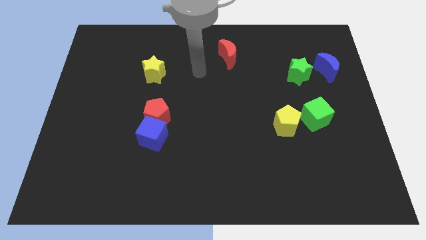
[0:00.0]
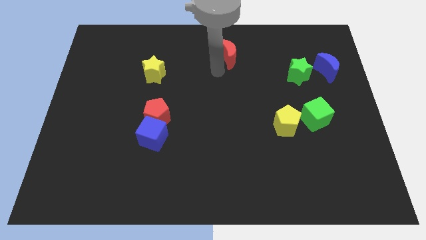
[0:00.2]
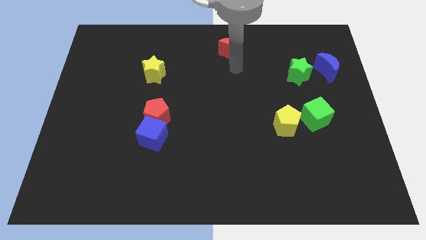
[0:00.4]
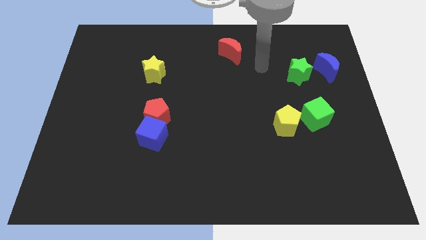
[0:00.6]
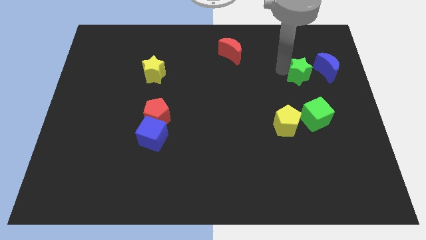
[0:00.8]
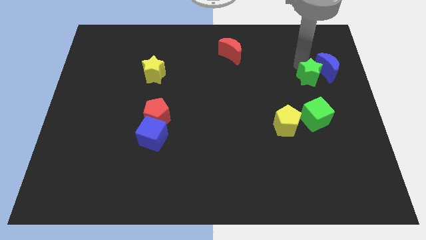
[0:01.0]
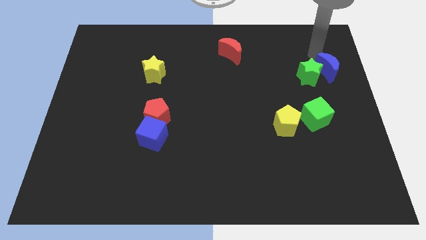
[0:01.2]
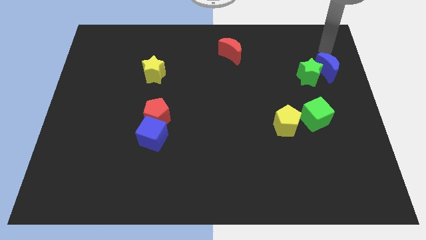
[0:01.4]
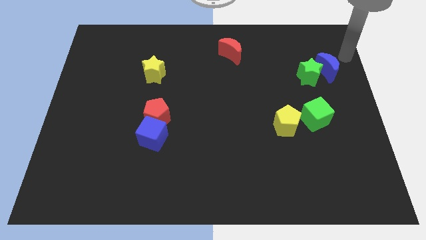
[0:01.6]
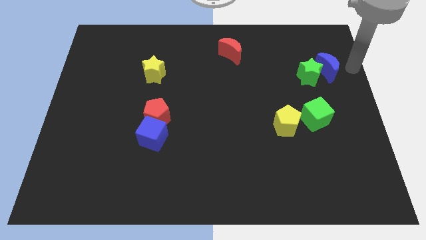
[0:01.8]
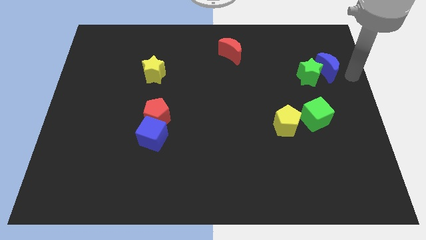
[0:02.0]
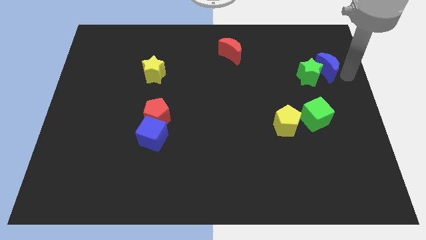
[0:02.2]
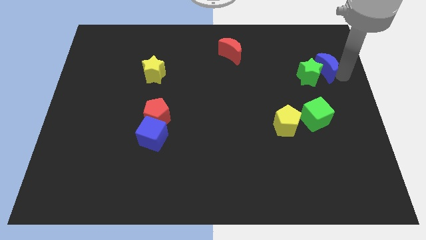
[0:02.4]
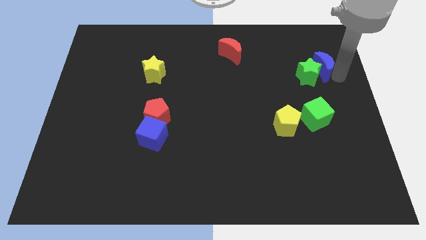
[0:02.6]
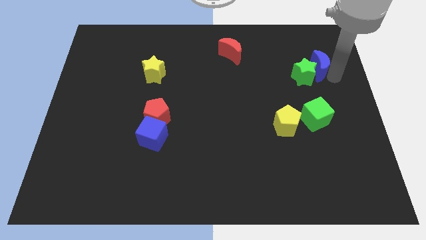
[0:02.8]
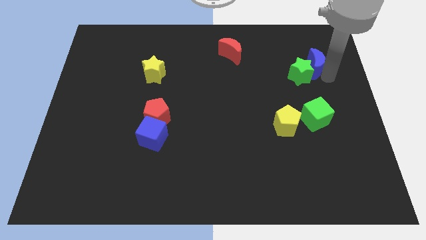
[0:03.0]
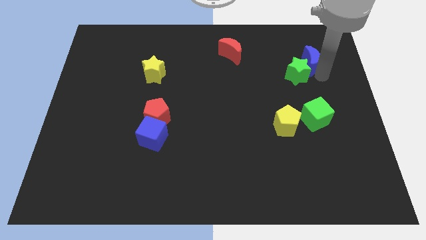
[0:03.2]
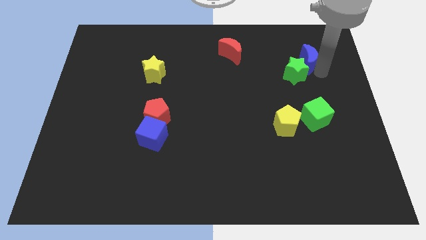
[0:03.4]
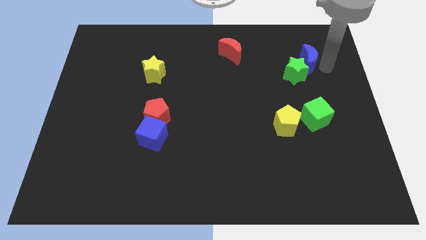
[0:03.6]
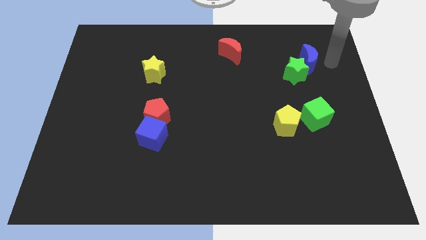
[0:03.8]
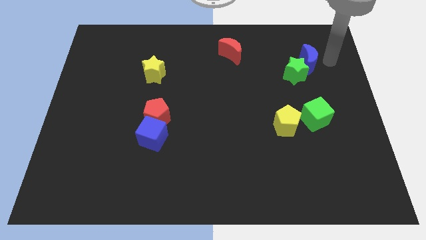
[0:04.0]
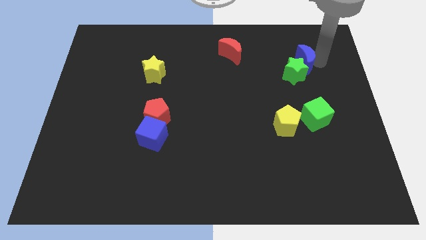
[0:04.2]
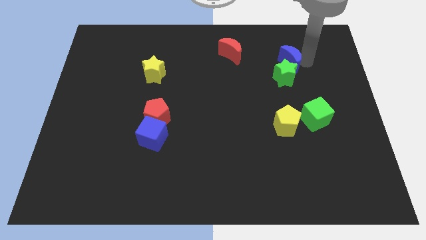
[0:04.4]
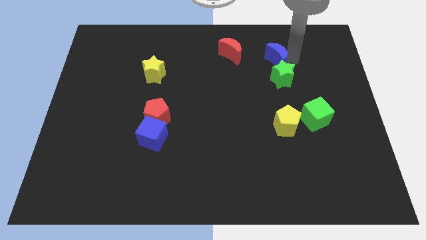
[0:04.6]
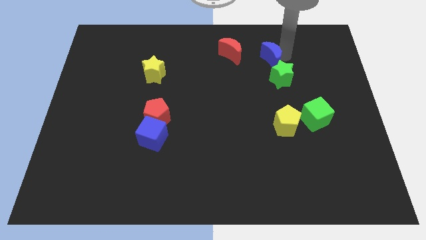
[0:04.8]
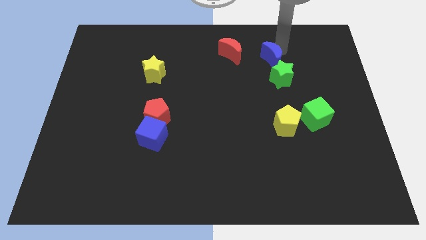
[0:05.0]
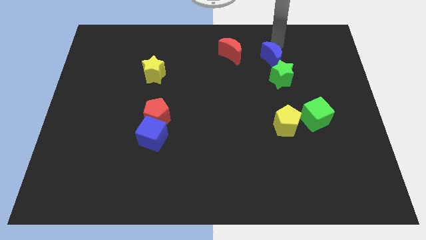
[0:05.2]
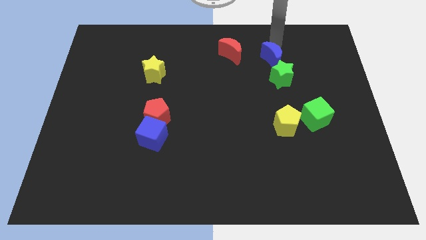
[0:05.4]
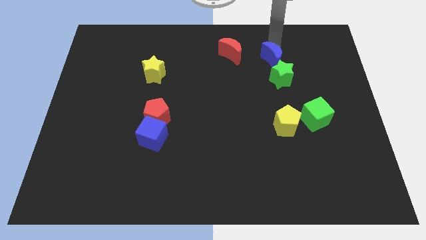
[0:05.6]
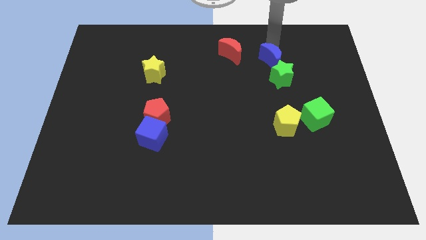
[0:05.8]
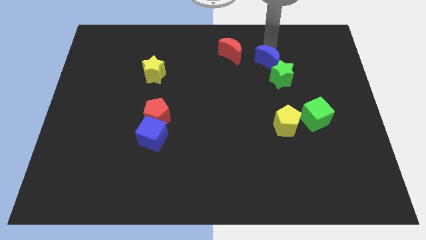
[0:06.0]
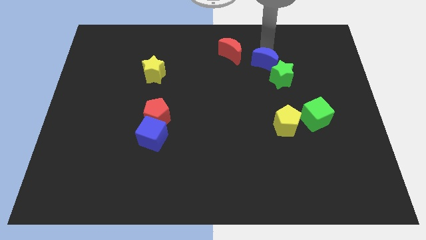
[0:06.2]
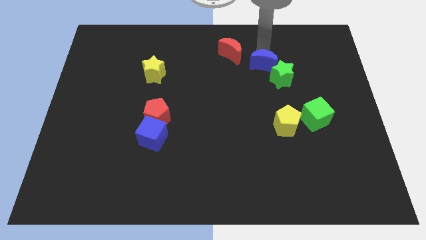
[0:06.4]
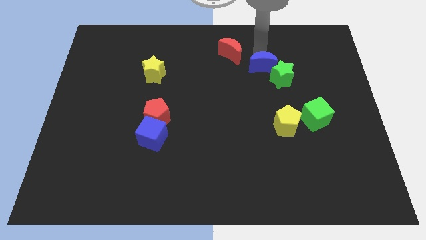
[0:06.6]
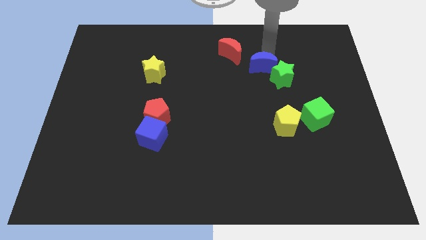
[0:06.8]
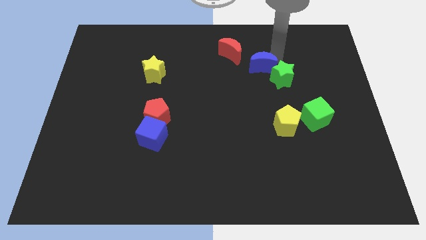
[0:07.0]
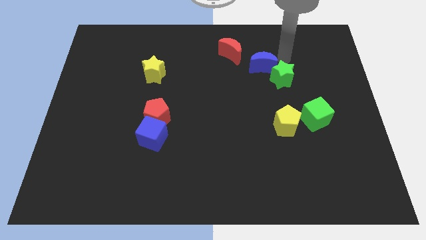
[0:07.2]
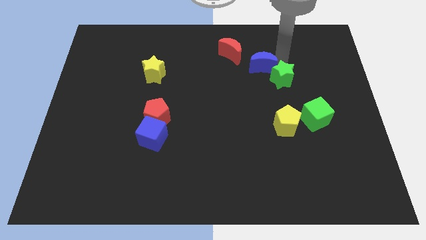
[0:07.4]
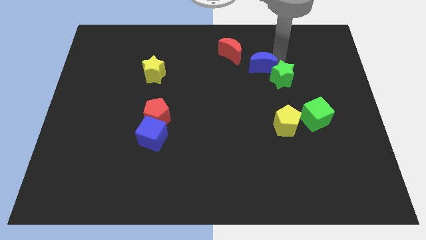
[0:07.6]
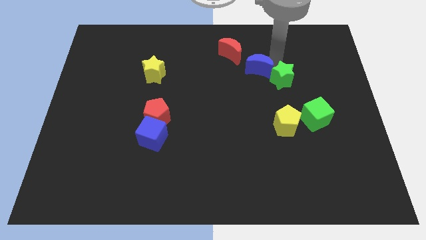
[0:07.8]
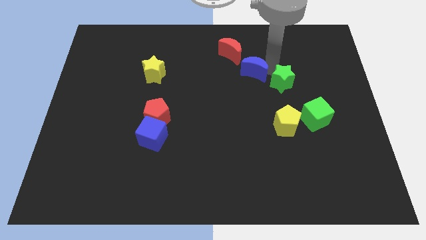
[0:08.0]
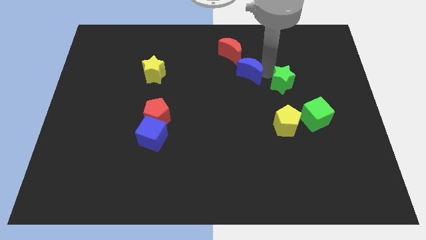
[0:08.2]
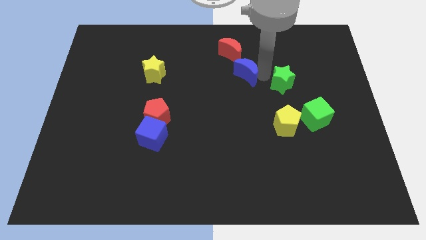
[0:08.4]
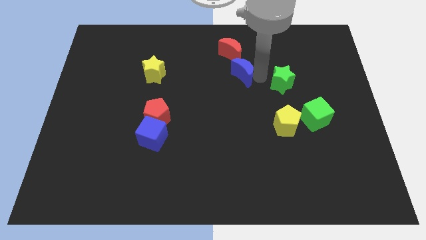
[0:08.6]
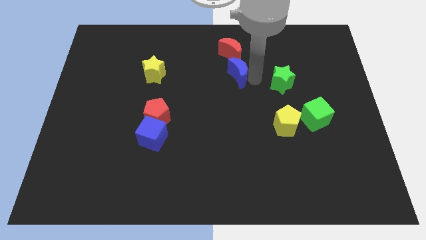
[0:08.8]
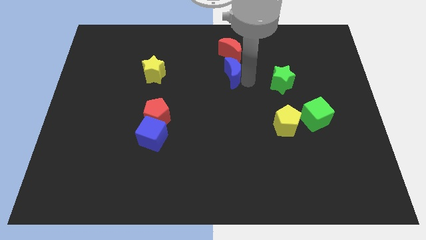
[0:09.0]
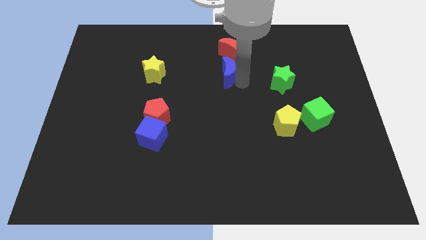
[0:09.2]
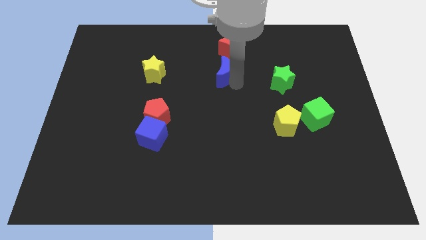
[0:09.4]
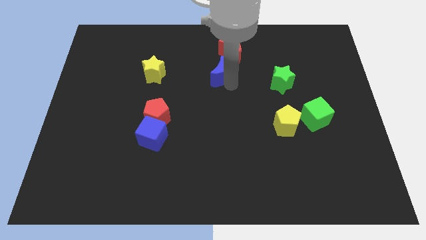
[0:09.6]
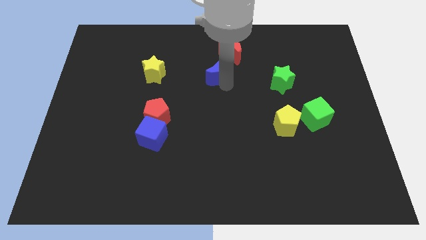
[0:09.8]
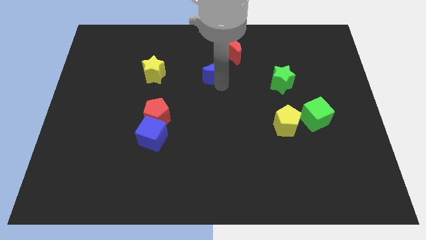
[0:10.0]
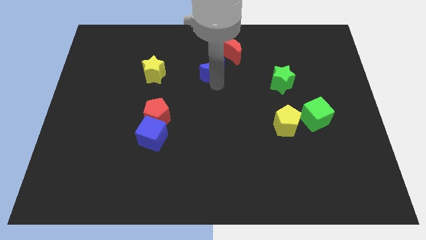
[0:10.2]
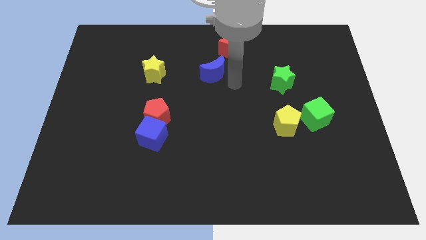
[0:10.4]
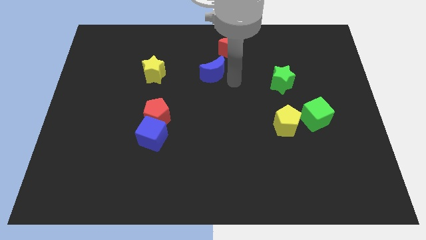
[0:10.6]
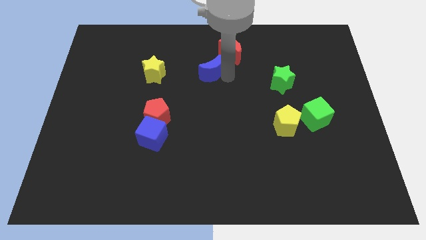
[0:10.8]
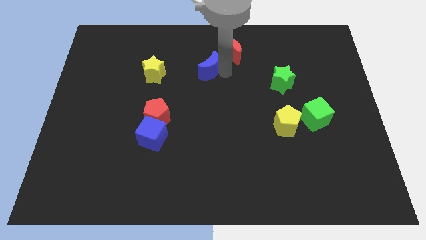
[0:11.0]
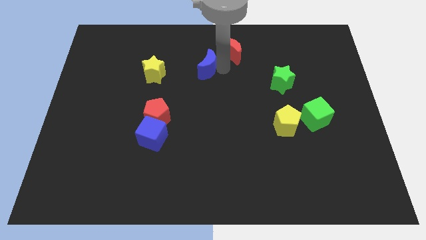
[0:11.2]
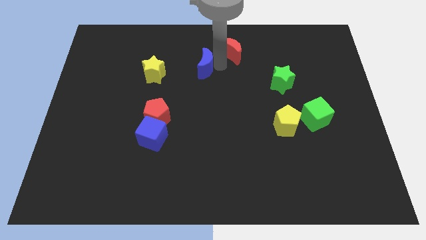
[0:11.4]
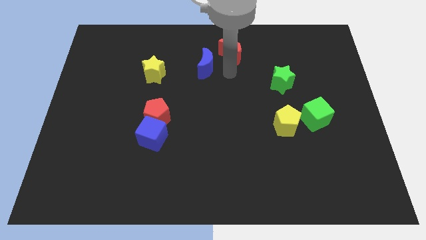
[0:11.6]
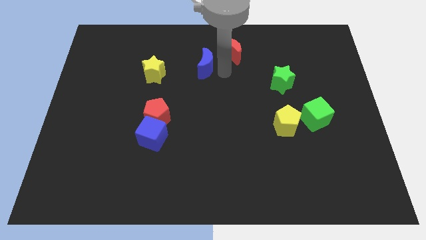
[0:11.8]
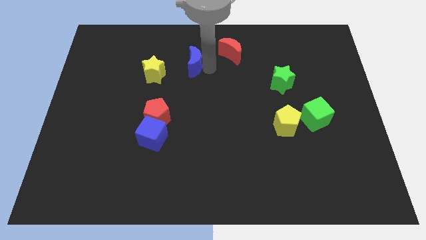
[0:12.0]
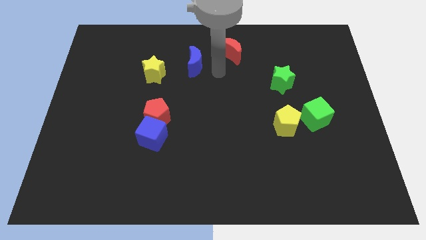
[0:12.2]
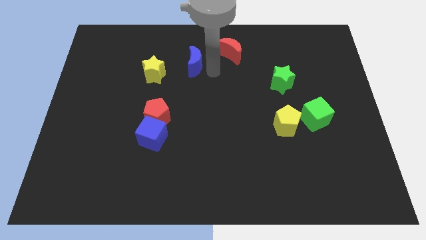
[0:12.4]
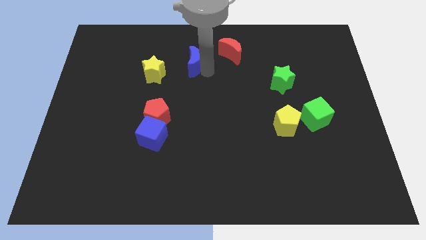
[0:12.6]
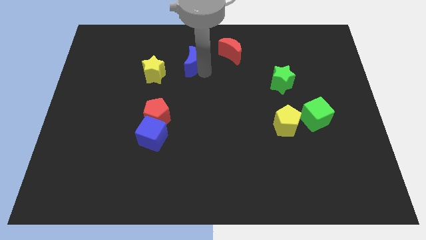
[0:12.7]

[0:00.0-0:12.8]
move the blue moon to the top right of the yellow star

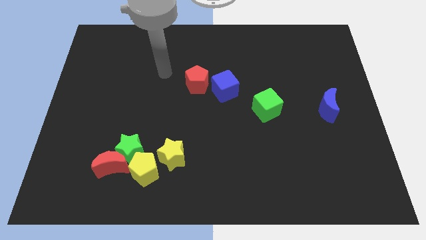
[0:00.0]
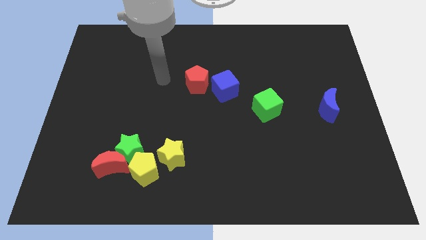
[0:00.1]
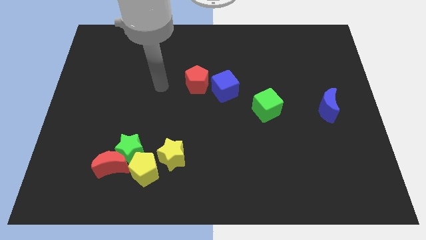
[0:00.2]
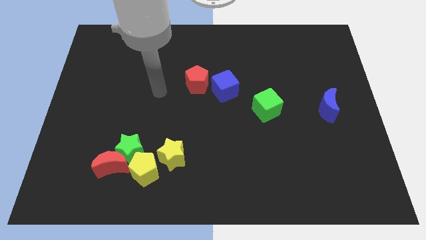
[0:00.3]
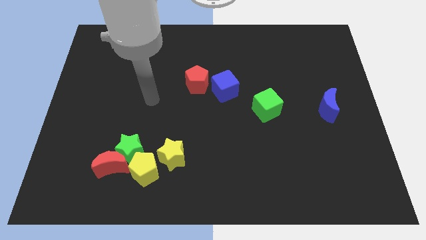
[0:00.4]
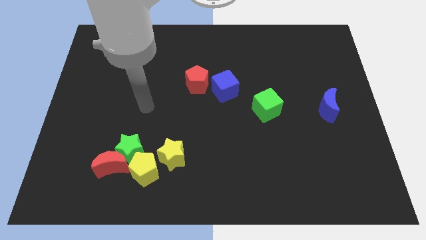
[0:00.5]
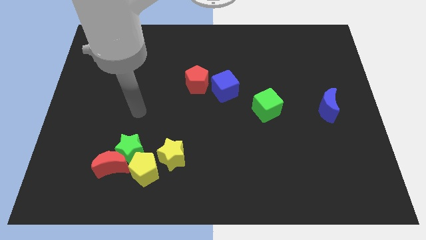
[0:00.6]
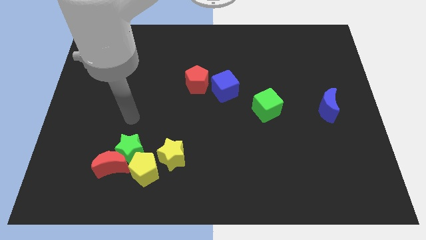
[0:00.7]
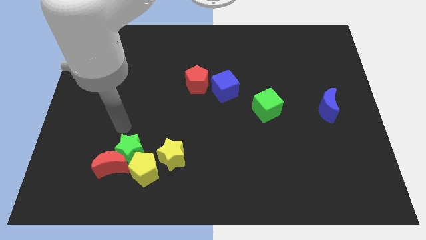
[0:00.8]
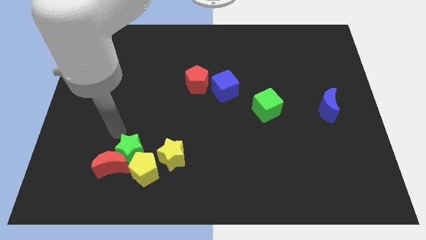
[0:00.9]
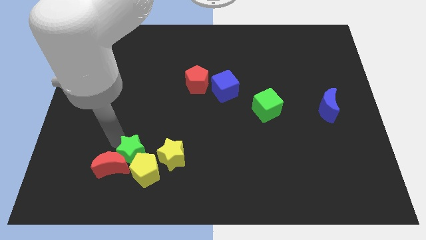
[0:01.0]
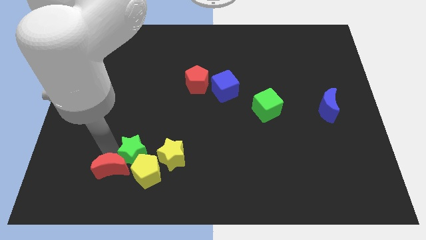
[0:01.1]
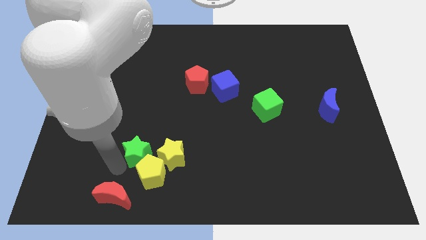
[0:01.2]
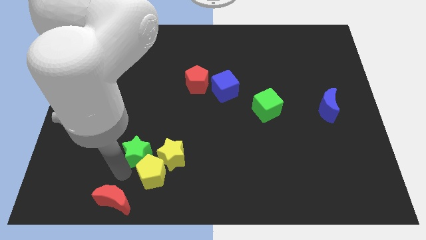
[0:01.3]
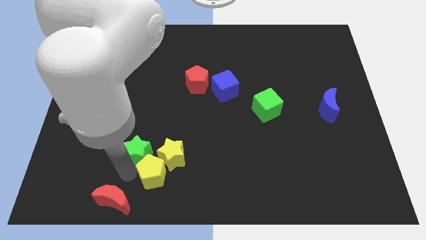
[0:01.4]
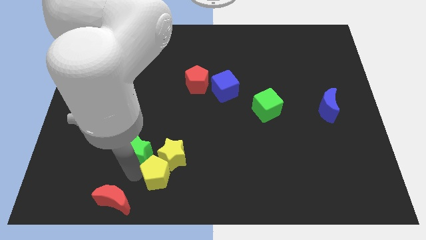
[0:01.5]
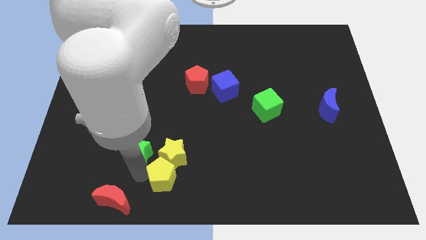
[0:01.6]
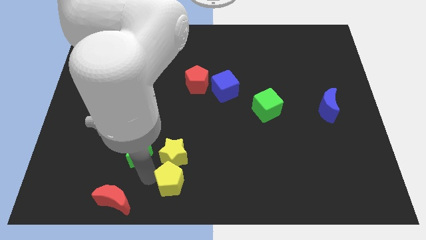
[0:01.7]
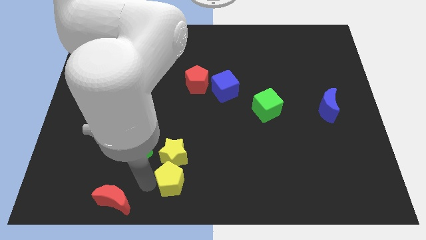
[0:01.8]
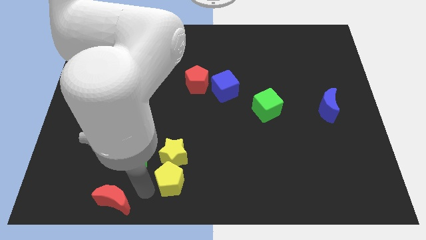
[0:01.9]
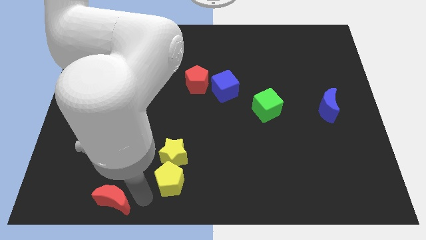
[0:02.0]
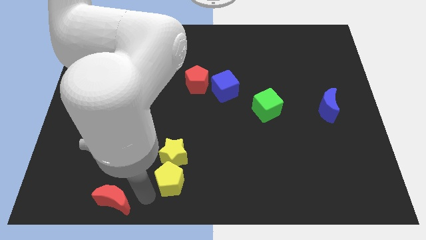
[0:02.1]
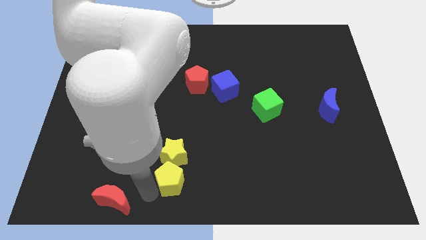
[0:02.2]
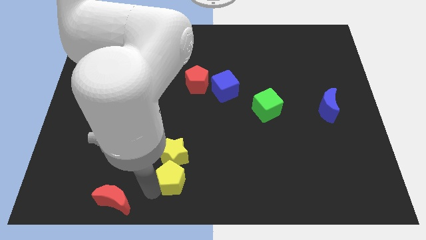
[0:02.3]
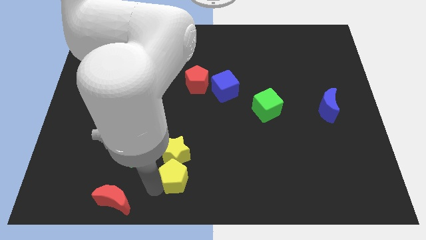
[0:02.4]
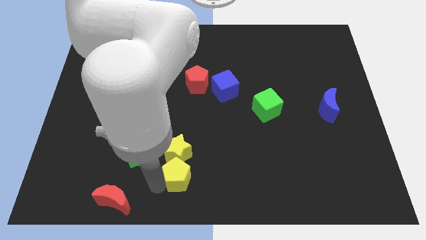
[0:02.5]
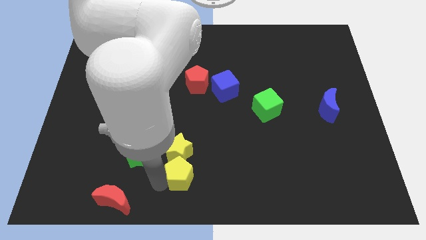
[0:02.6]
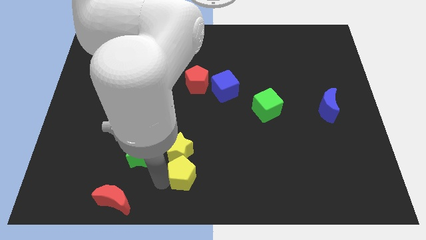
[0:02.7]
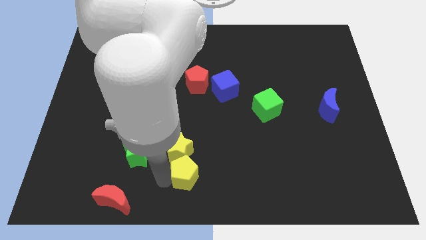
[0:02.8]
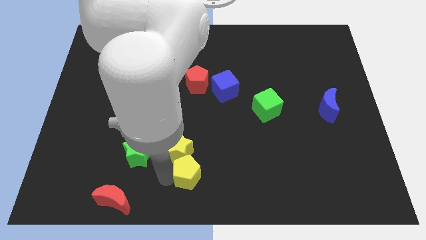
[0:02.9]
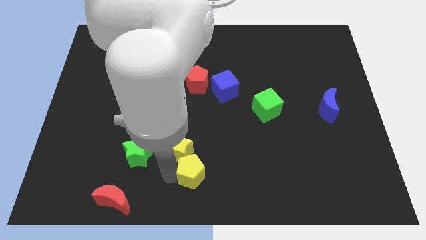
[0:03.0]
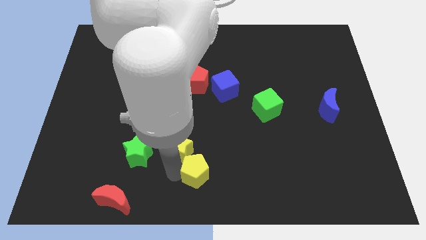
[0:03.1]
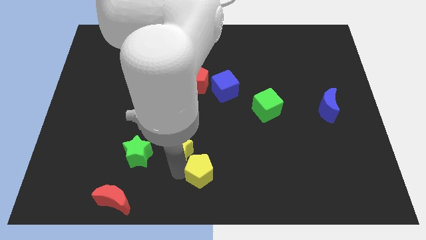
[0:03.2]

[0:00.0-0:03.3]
slide the yellow pentagon right of the yellow star
